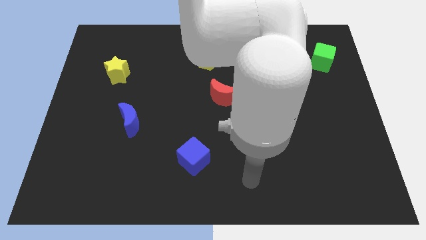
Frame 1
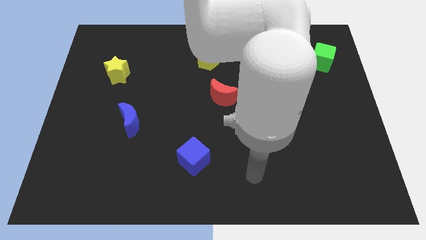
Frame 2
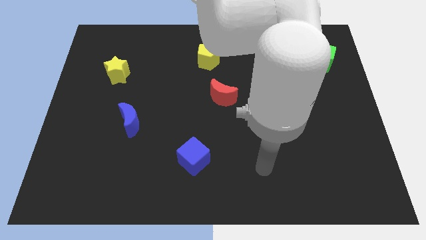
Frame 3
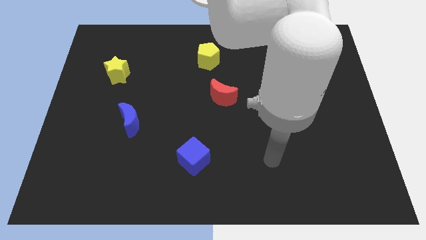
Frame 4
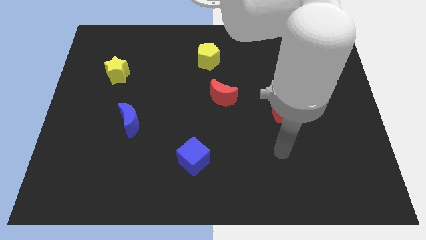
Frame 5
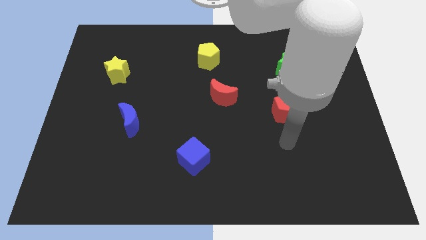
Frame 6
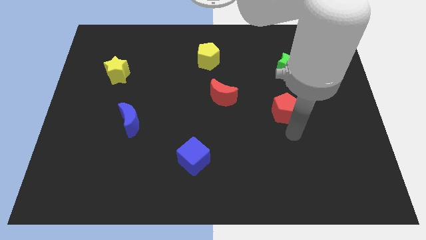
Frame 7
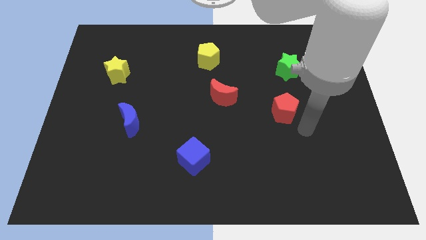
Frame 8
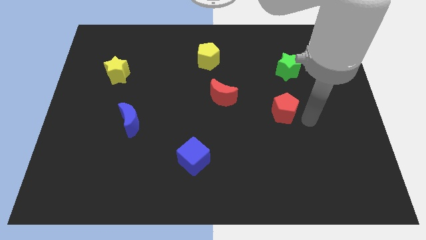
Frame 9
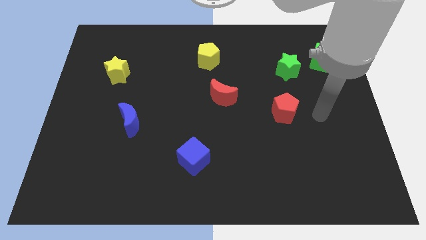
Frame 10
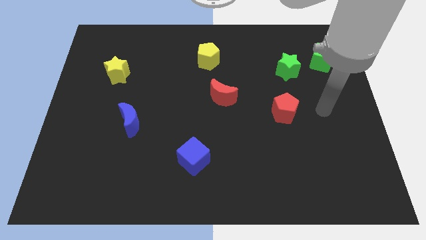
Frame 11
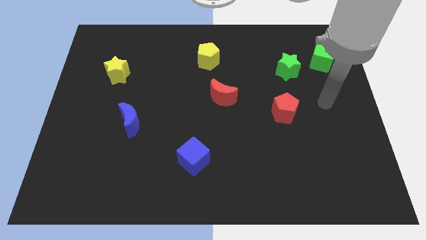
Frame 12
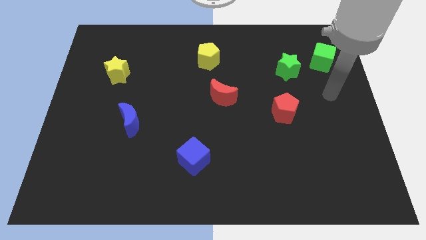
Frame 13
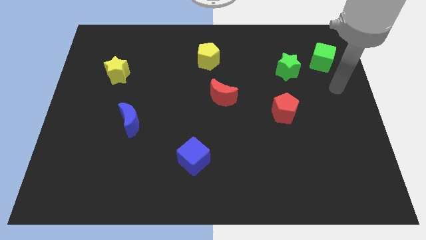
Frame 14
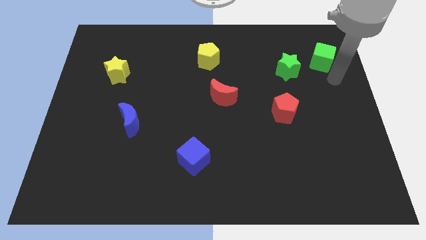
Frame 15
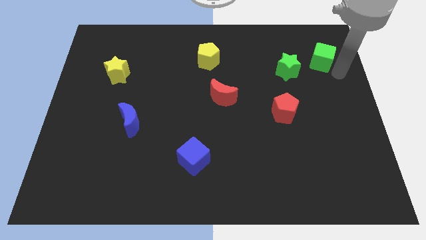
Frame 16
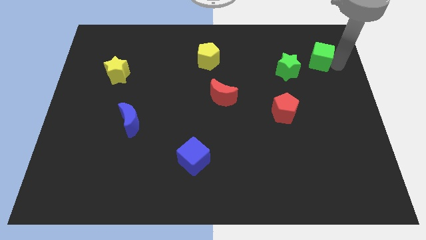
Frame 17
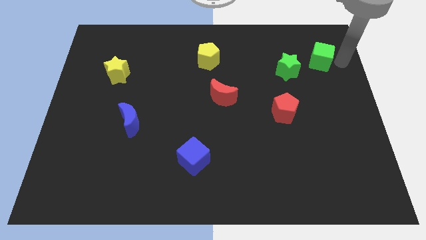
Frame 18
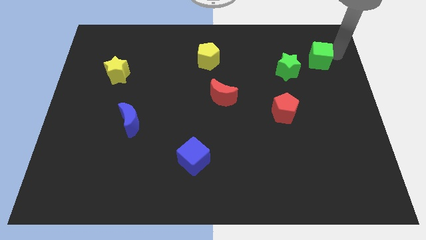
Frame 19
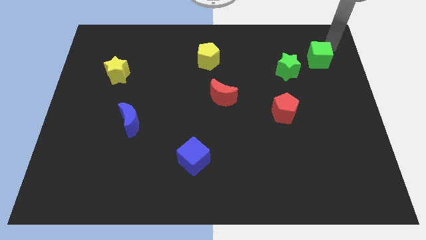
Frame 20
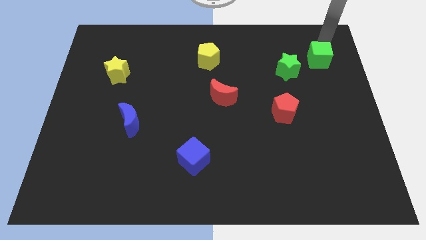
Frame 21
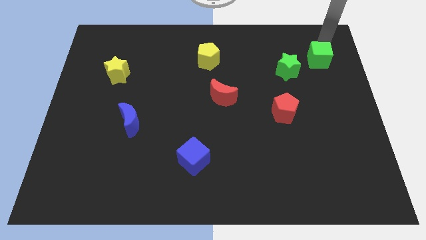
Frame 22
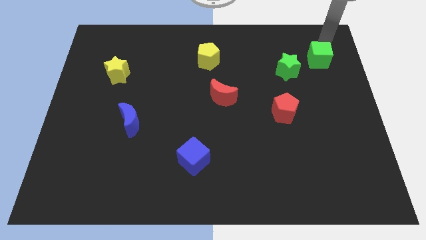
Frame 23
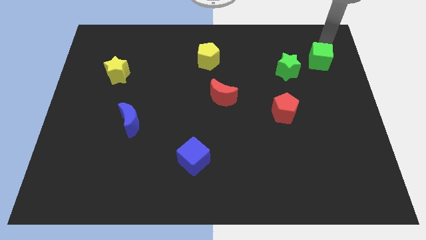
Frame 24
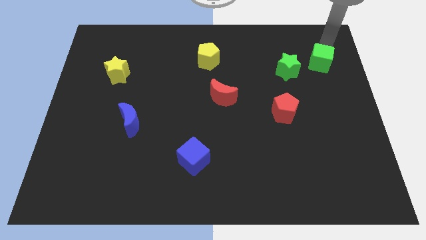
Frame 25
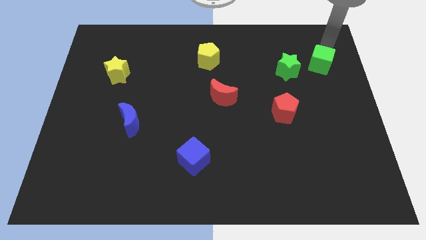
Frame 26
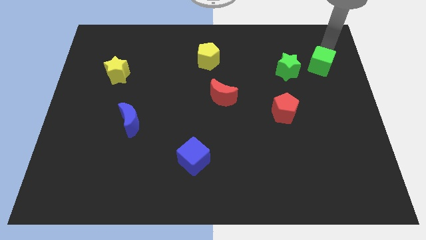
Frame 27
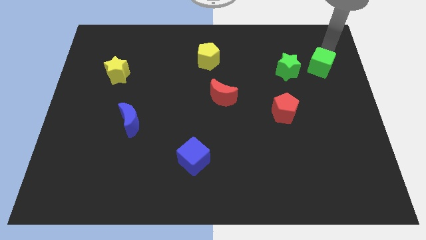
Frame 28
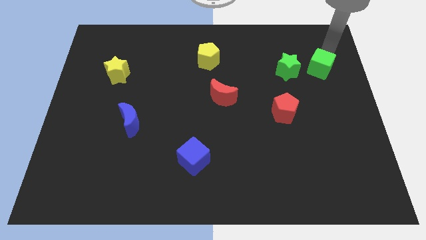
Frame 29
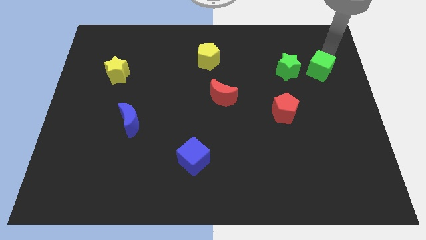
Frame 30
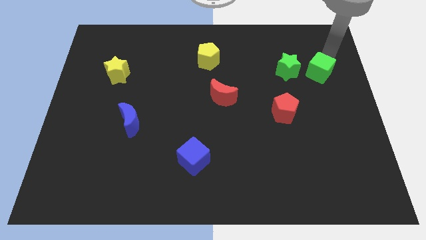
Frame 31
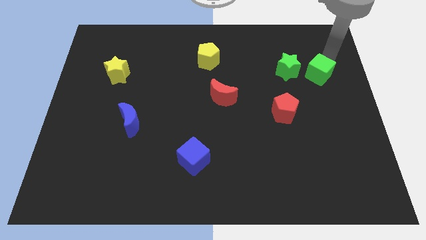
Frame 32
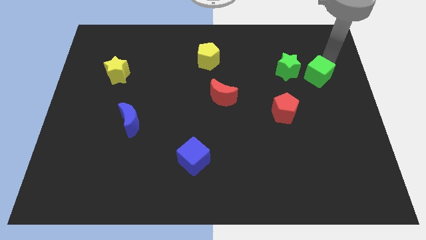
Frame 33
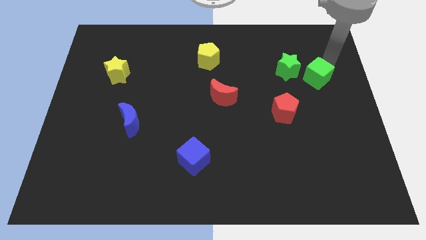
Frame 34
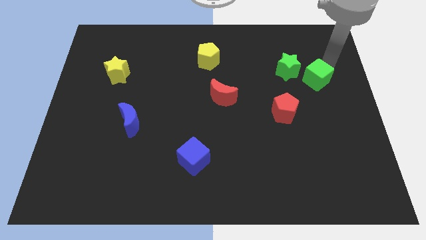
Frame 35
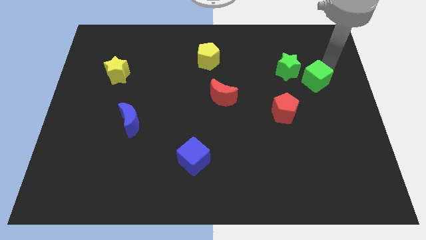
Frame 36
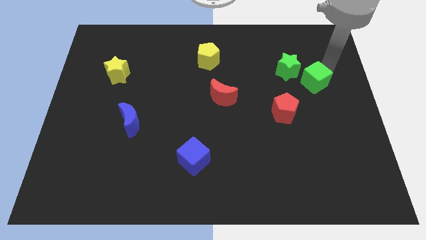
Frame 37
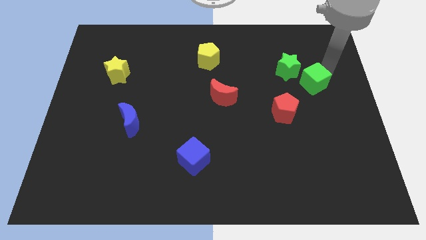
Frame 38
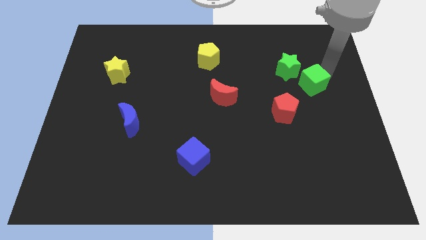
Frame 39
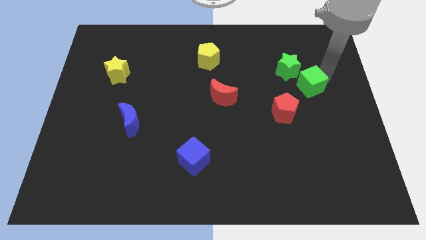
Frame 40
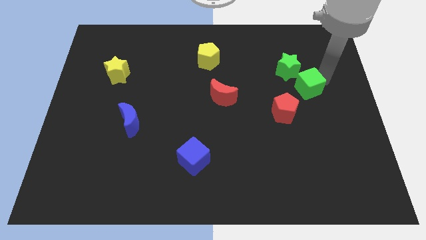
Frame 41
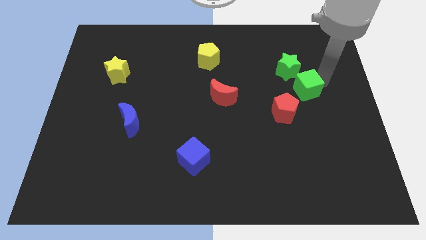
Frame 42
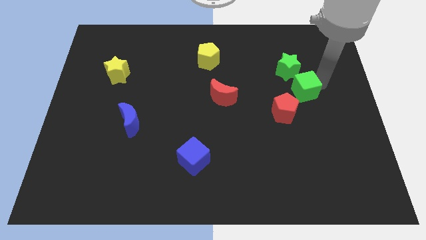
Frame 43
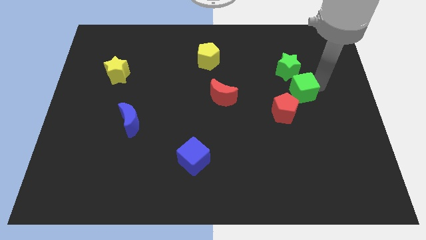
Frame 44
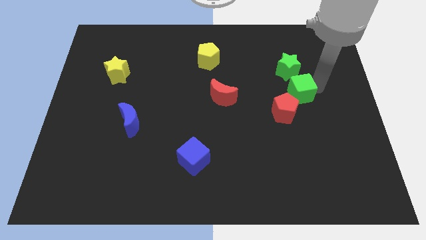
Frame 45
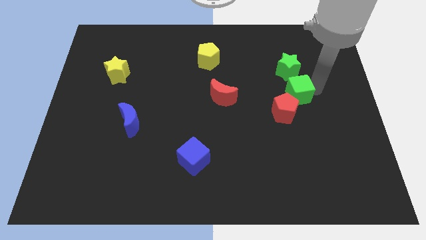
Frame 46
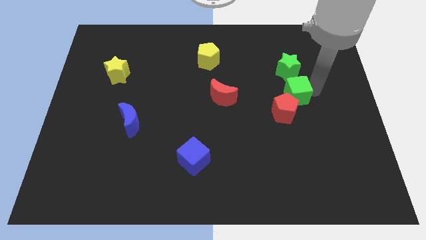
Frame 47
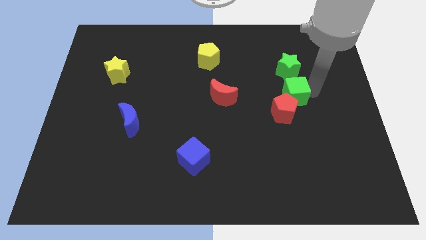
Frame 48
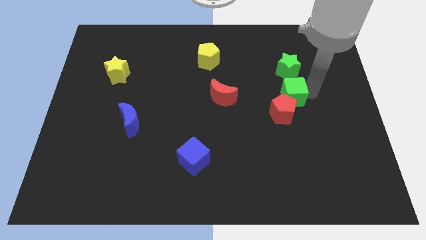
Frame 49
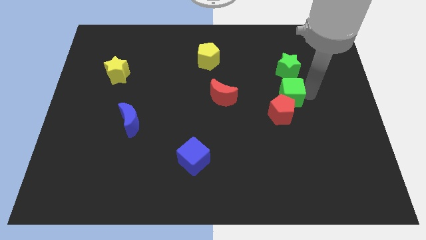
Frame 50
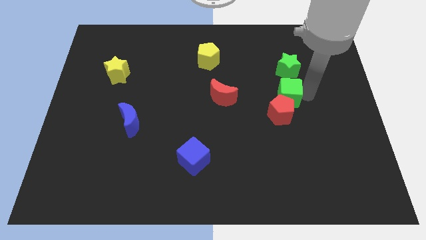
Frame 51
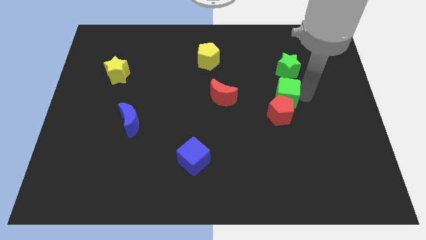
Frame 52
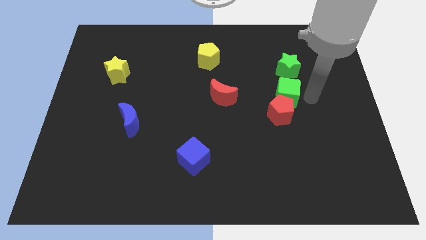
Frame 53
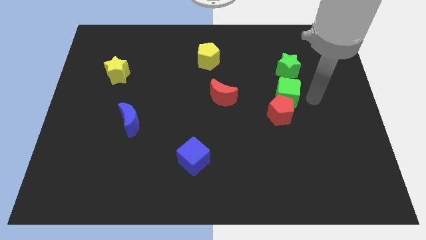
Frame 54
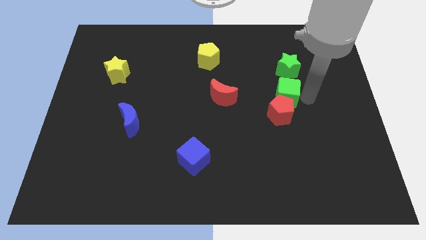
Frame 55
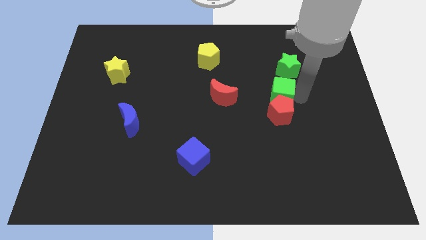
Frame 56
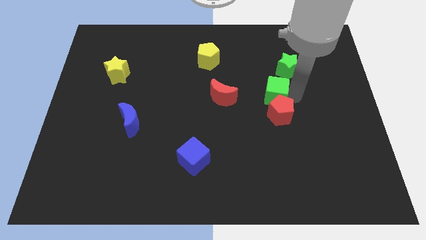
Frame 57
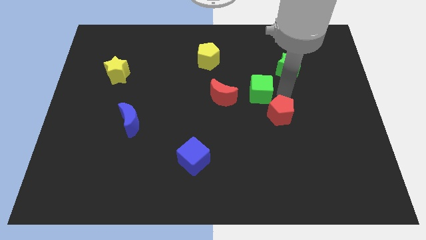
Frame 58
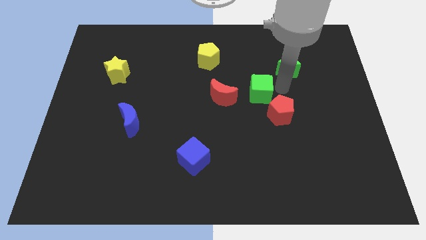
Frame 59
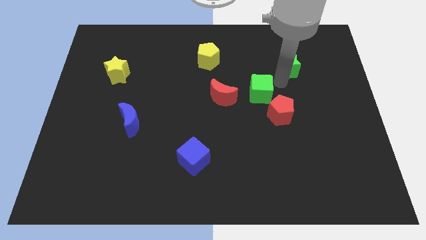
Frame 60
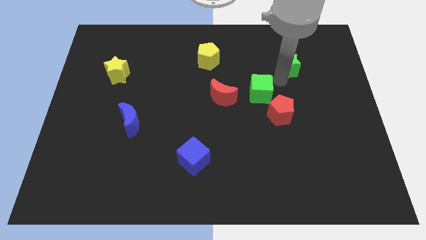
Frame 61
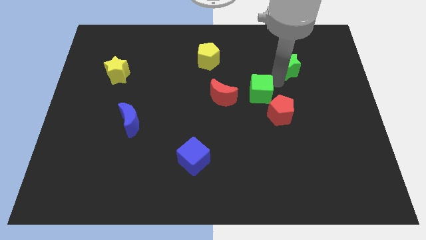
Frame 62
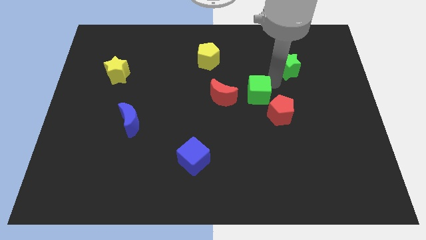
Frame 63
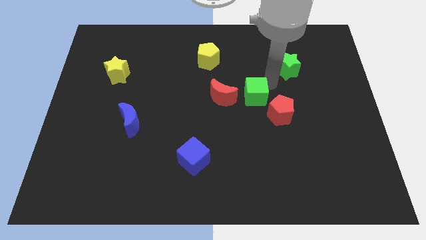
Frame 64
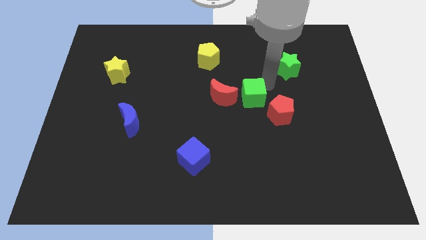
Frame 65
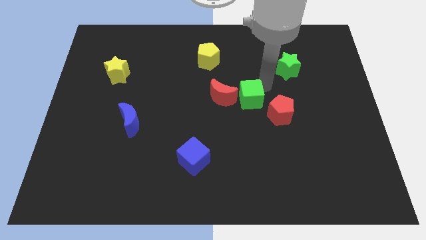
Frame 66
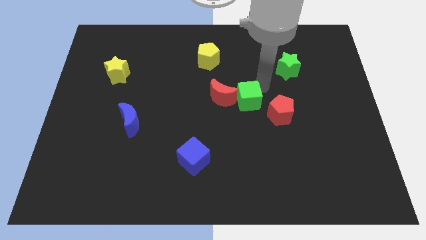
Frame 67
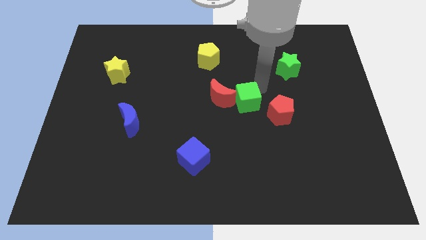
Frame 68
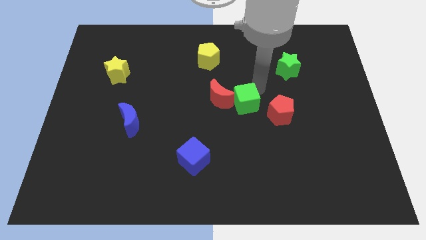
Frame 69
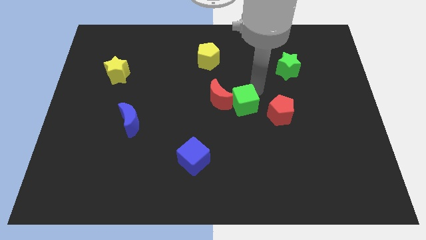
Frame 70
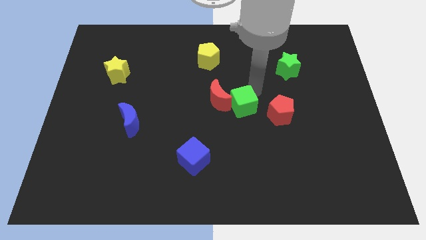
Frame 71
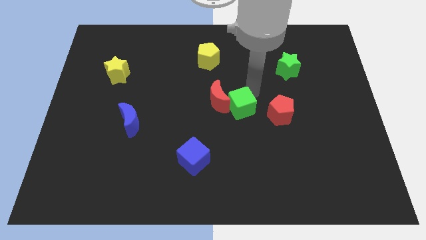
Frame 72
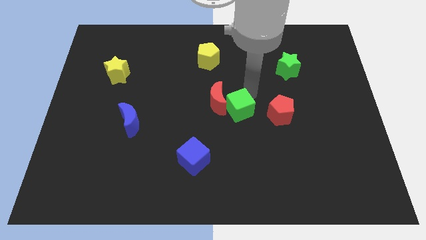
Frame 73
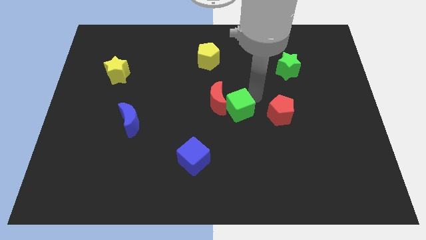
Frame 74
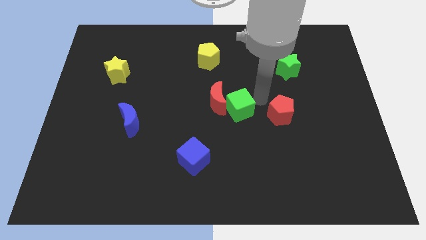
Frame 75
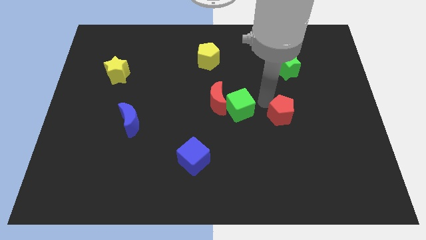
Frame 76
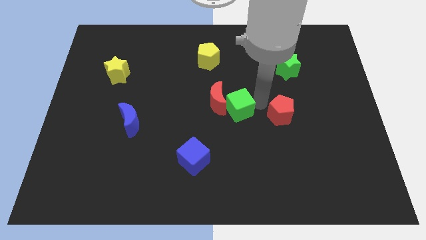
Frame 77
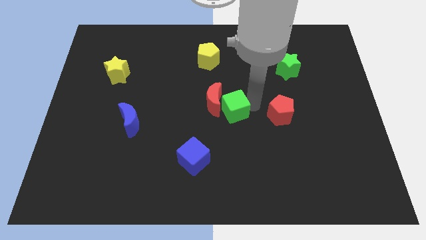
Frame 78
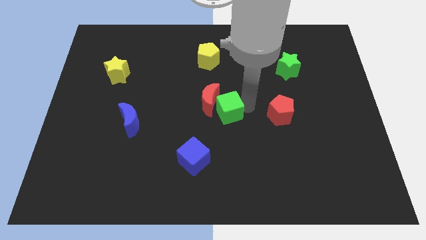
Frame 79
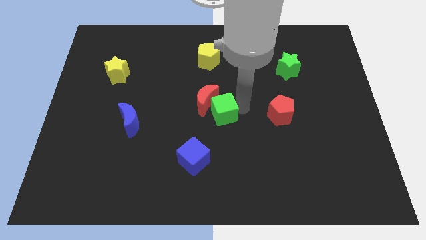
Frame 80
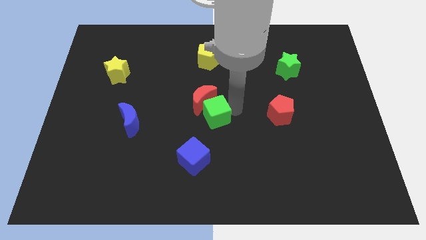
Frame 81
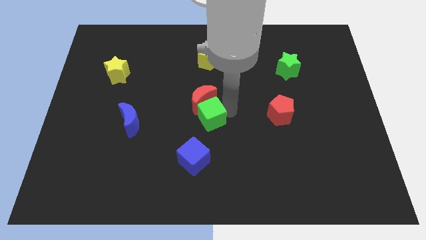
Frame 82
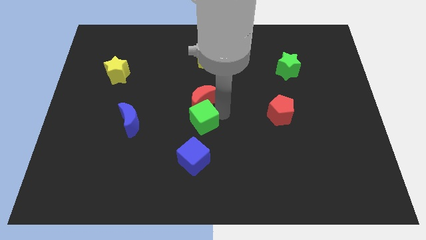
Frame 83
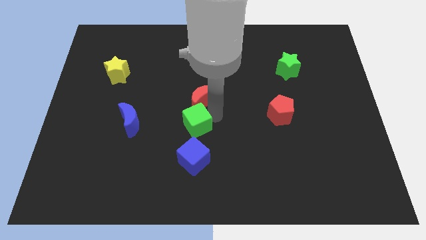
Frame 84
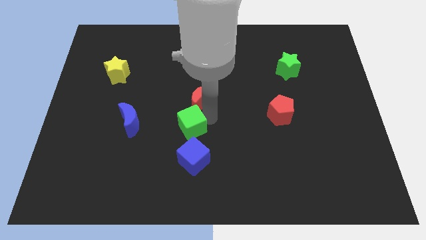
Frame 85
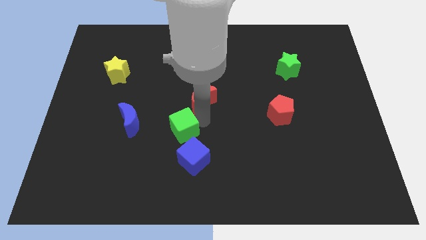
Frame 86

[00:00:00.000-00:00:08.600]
push the green cube diagonally up and to the left of the blue cube
